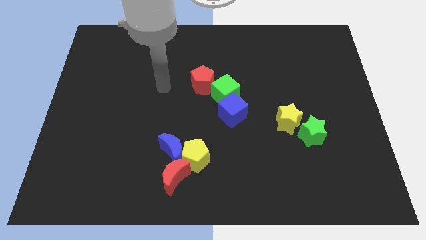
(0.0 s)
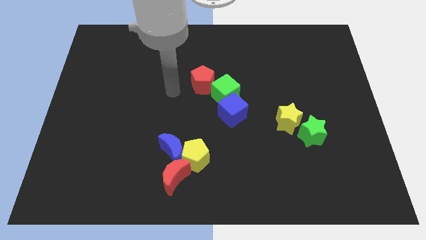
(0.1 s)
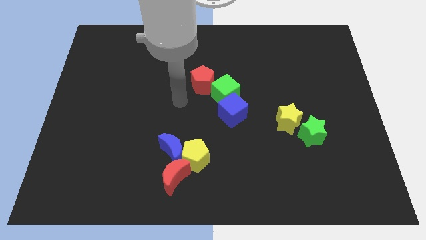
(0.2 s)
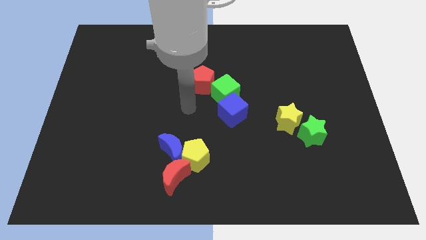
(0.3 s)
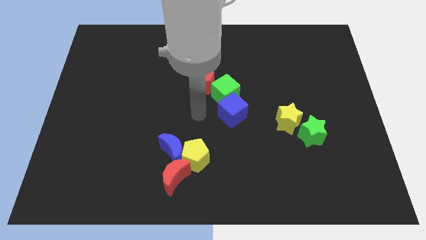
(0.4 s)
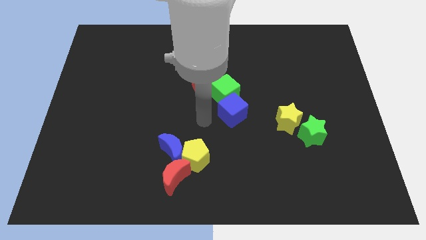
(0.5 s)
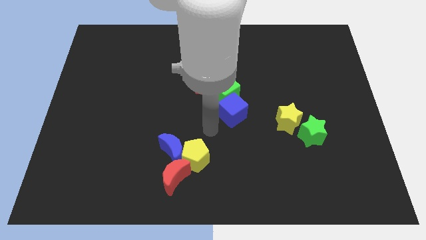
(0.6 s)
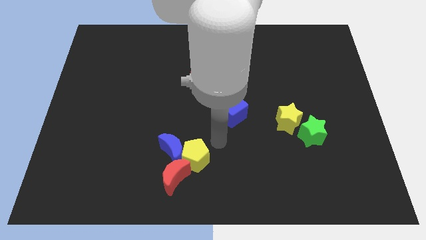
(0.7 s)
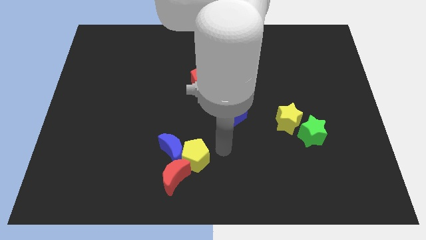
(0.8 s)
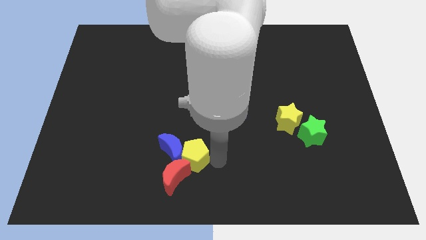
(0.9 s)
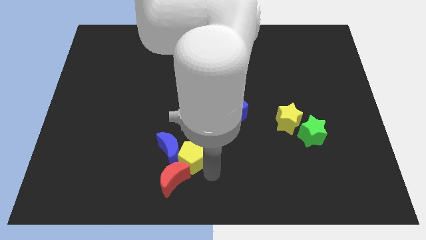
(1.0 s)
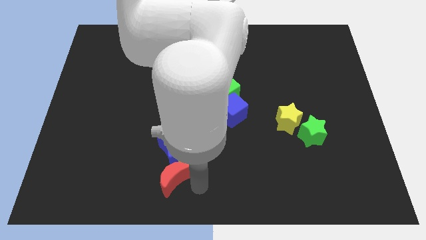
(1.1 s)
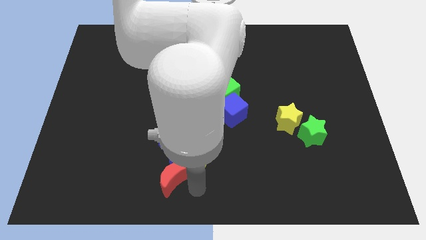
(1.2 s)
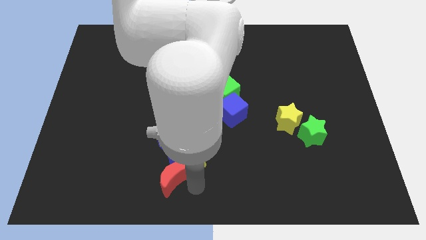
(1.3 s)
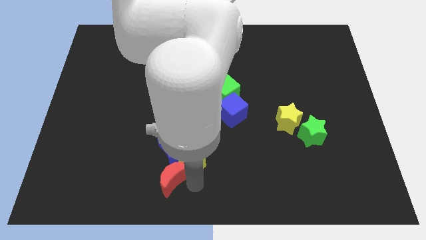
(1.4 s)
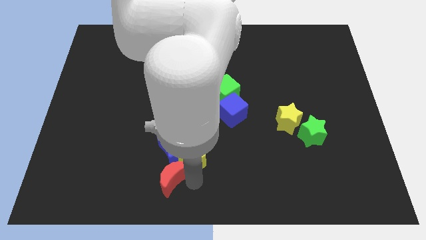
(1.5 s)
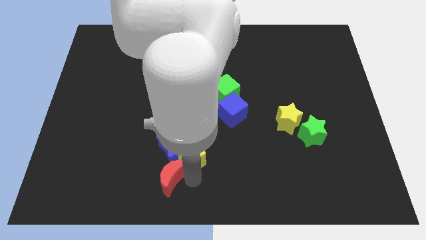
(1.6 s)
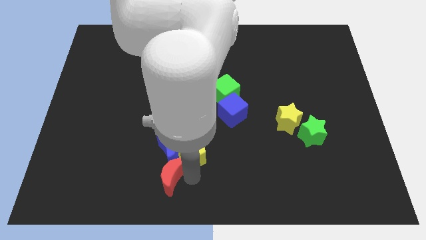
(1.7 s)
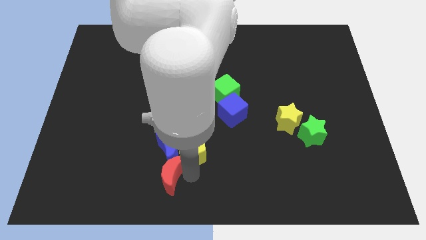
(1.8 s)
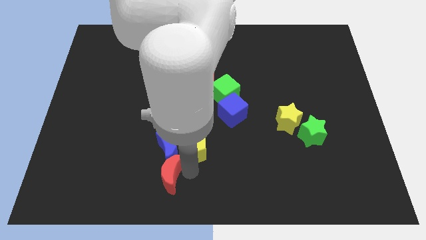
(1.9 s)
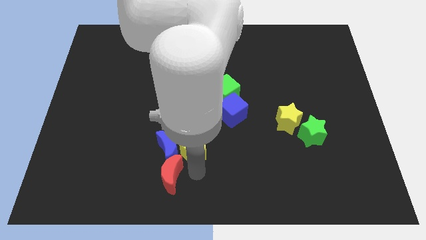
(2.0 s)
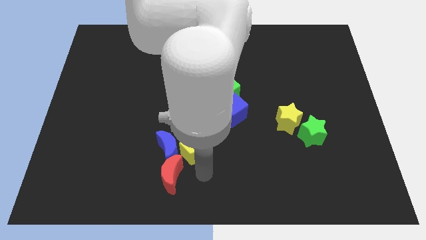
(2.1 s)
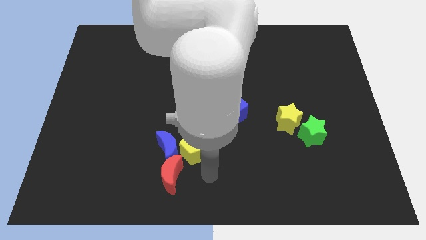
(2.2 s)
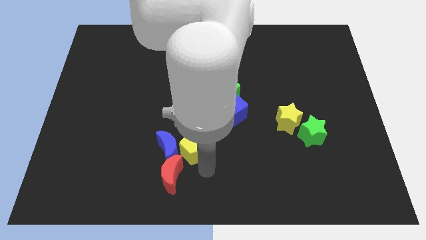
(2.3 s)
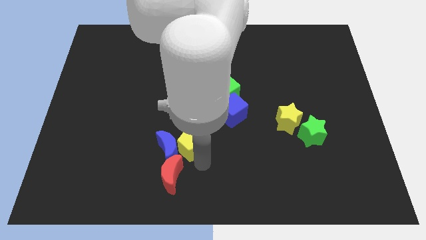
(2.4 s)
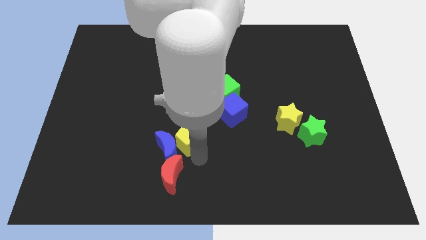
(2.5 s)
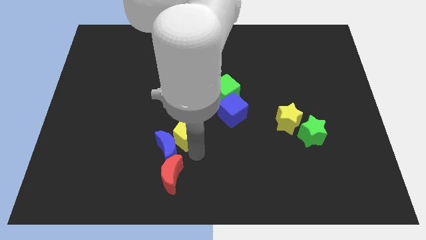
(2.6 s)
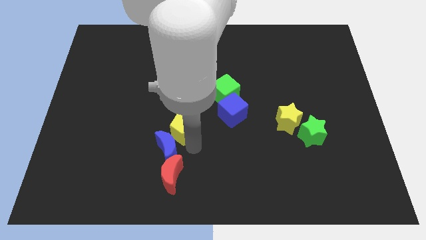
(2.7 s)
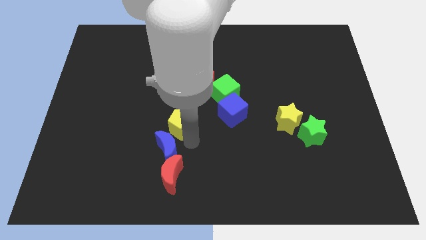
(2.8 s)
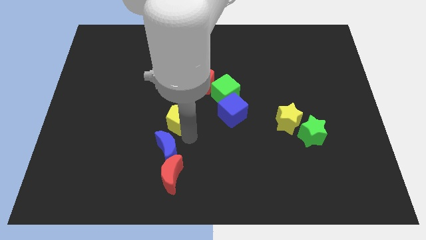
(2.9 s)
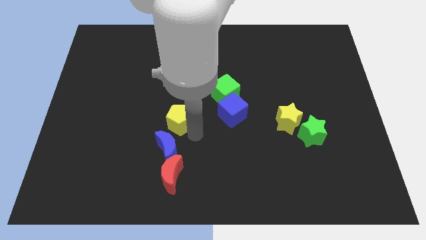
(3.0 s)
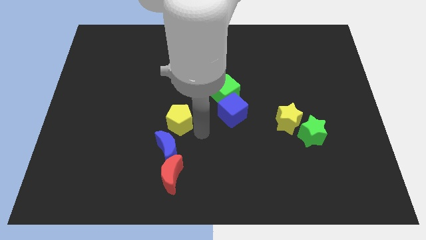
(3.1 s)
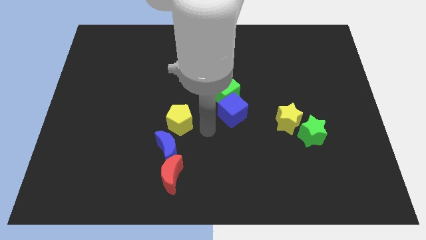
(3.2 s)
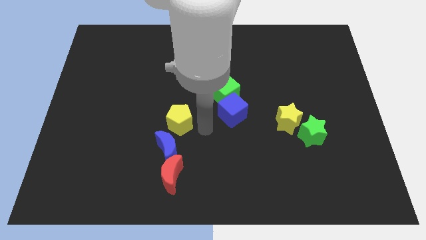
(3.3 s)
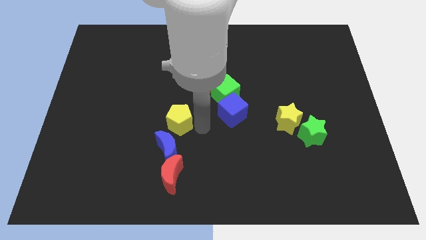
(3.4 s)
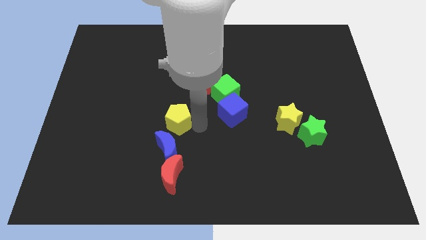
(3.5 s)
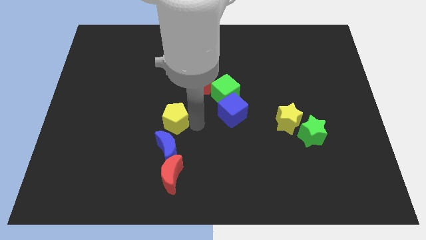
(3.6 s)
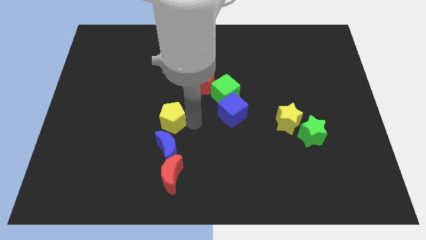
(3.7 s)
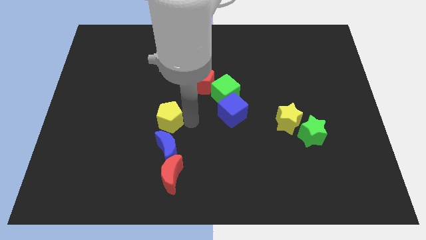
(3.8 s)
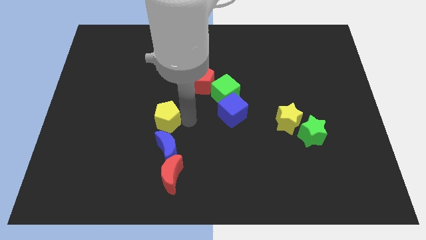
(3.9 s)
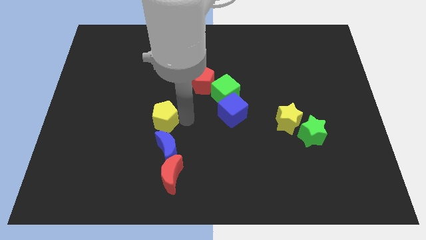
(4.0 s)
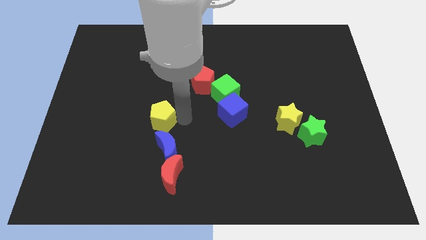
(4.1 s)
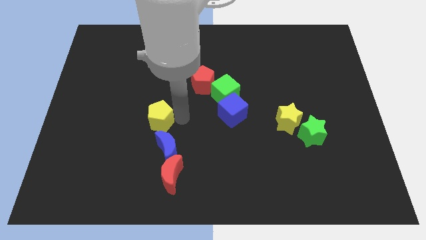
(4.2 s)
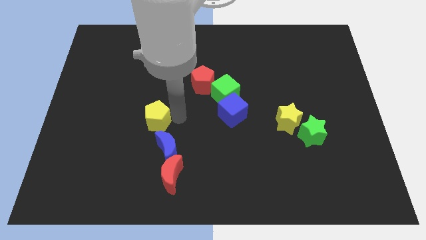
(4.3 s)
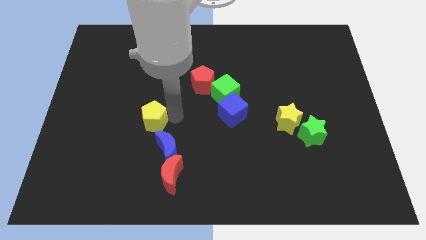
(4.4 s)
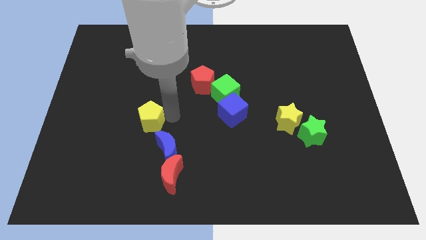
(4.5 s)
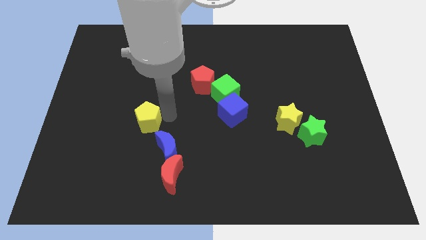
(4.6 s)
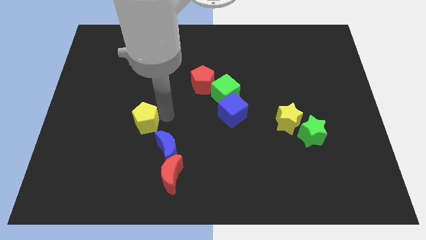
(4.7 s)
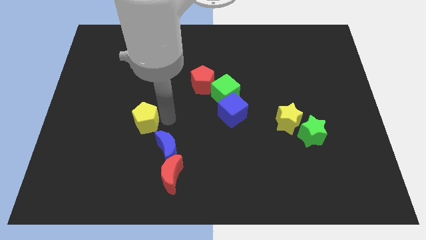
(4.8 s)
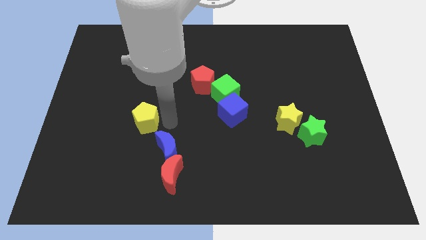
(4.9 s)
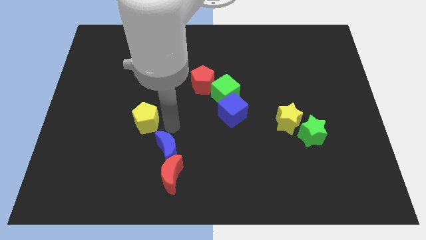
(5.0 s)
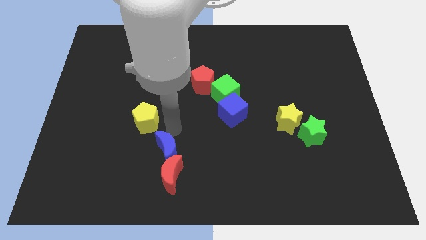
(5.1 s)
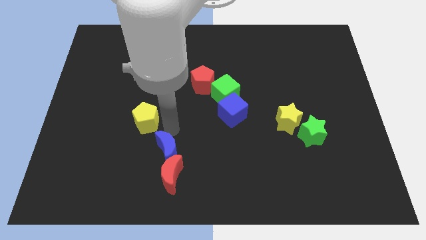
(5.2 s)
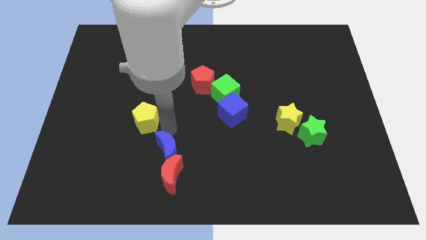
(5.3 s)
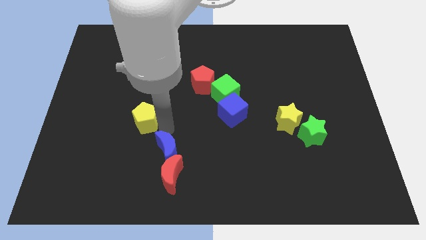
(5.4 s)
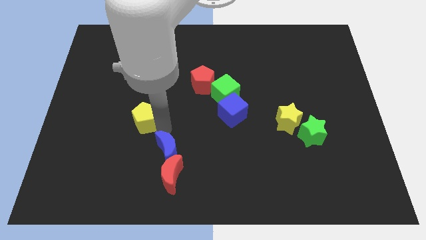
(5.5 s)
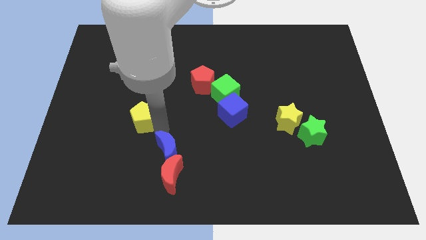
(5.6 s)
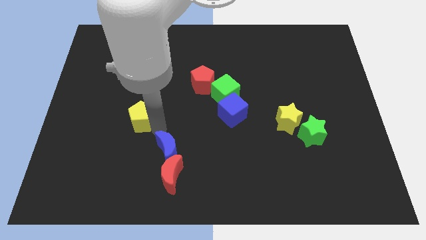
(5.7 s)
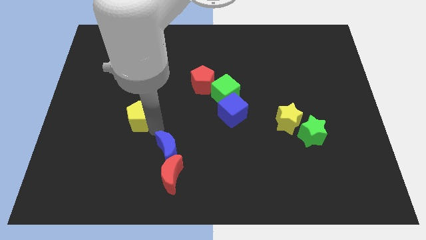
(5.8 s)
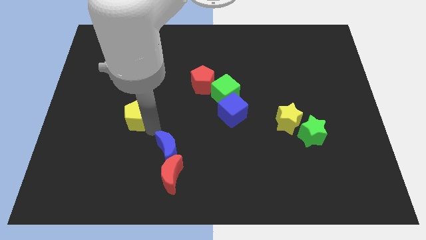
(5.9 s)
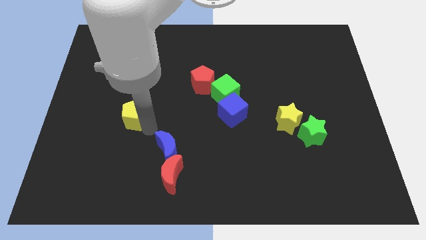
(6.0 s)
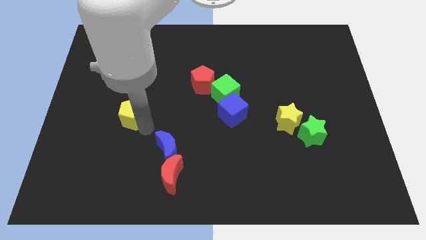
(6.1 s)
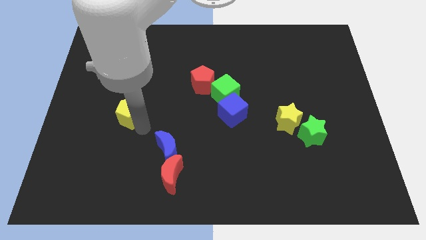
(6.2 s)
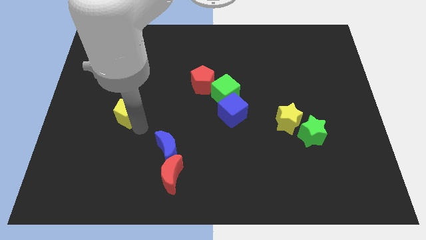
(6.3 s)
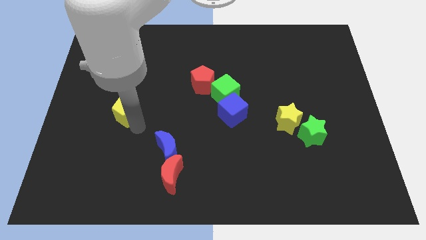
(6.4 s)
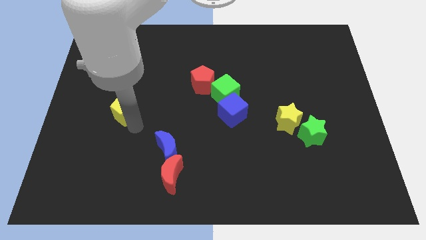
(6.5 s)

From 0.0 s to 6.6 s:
slide the yellow pentagon up and left

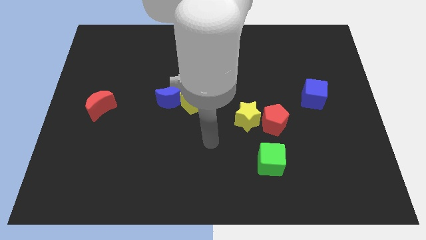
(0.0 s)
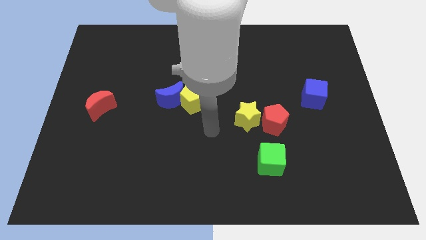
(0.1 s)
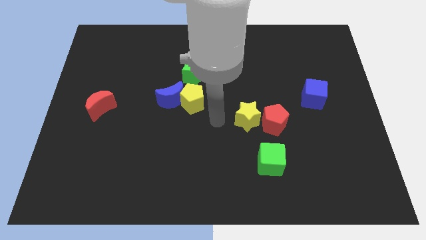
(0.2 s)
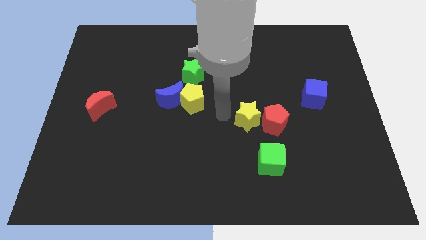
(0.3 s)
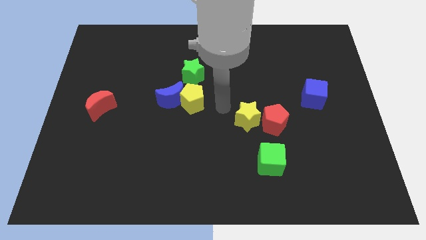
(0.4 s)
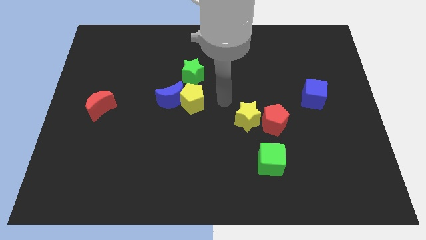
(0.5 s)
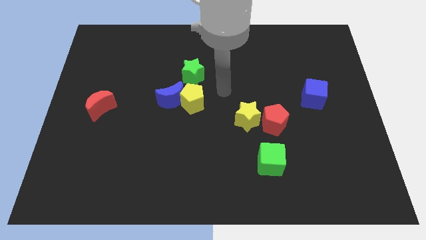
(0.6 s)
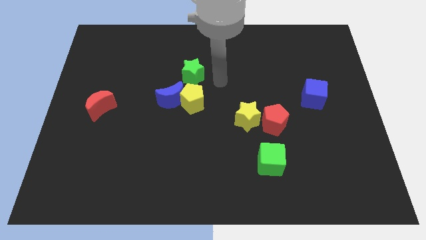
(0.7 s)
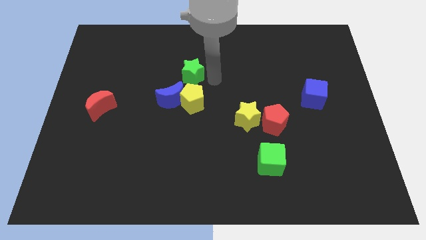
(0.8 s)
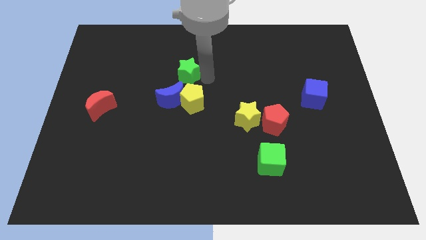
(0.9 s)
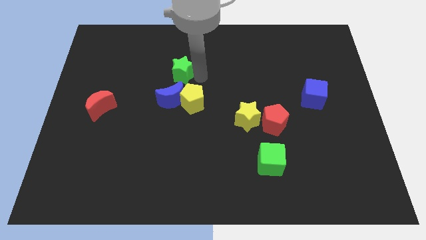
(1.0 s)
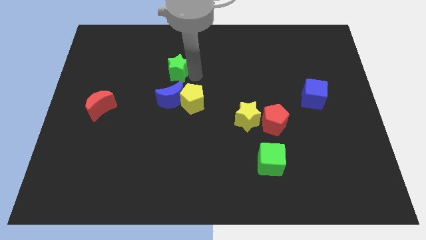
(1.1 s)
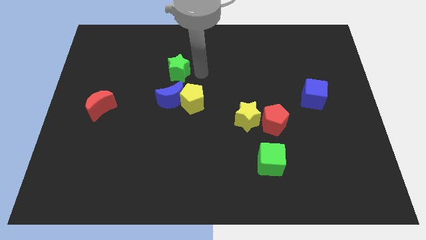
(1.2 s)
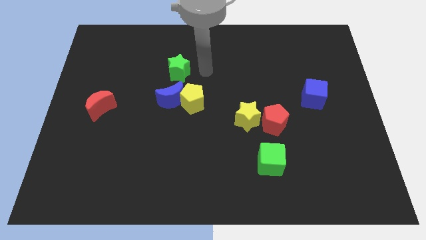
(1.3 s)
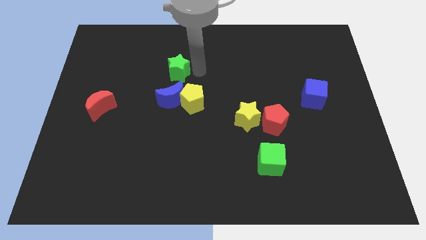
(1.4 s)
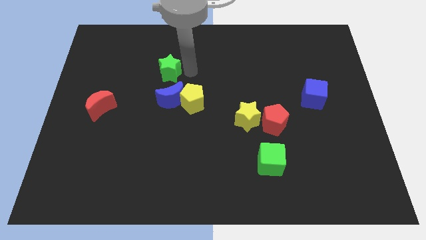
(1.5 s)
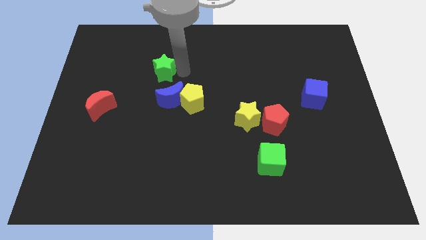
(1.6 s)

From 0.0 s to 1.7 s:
move the green star to the left a little bit

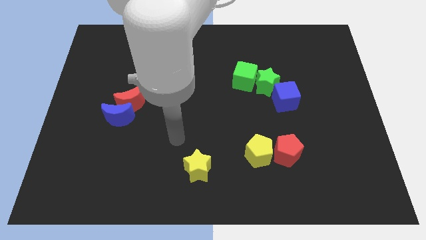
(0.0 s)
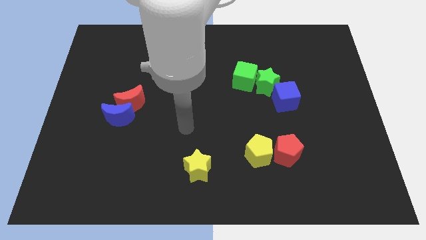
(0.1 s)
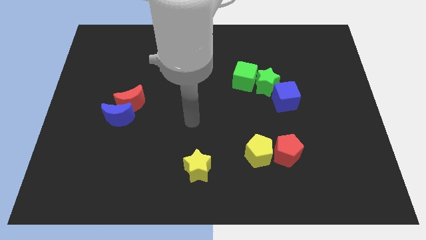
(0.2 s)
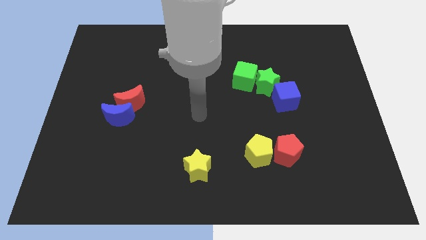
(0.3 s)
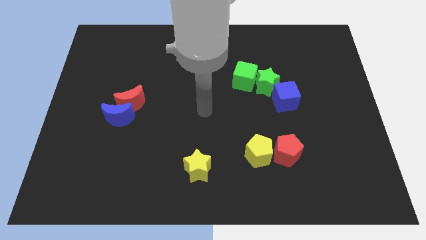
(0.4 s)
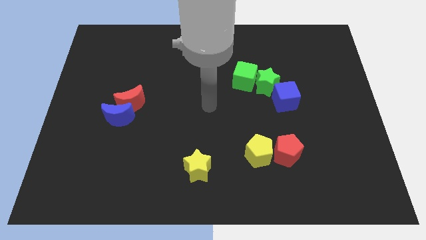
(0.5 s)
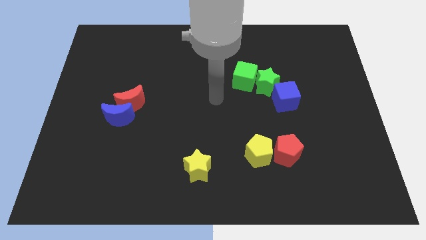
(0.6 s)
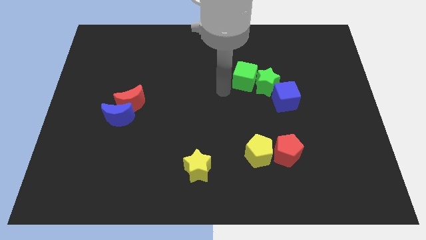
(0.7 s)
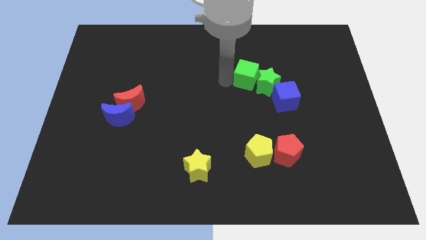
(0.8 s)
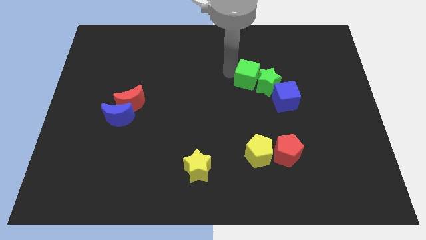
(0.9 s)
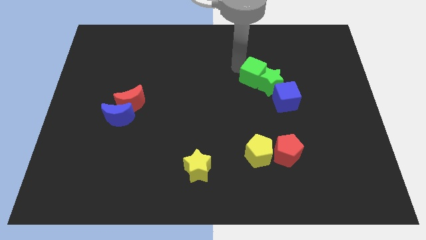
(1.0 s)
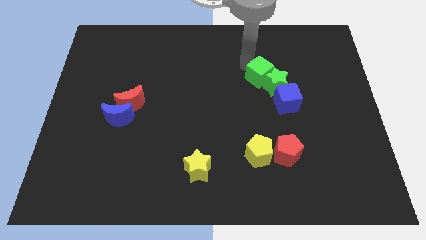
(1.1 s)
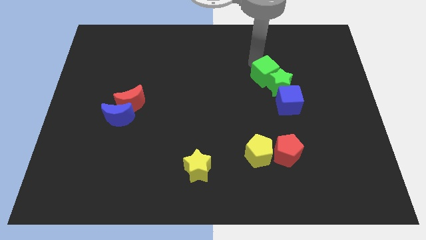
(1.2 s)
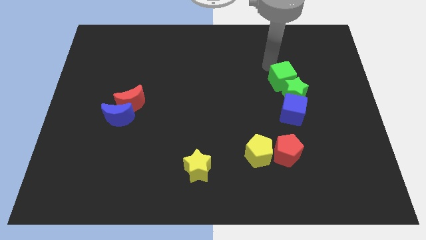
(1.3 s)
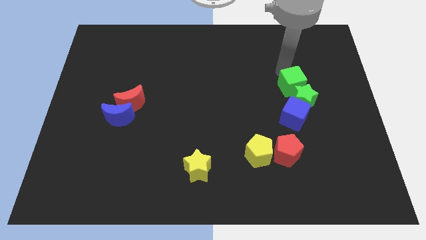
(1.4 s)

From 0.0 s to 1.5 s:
slide the green star down and then right a bit
